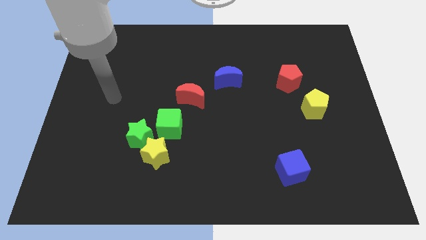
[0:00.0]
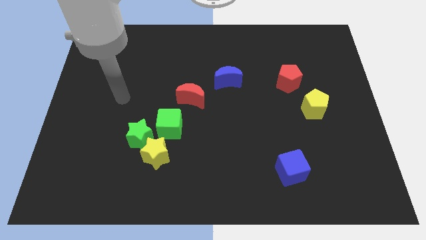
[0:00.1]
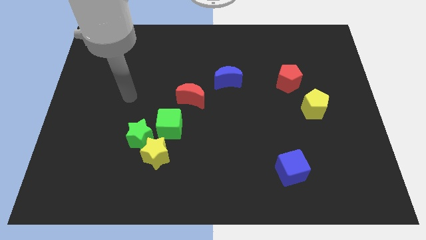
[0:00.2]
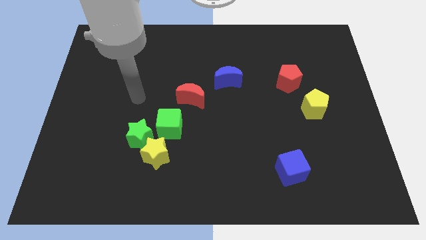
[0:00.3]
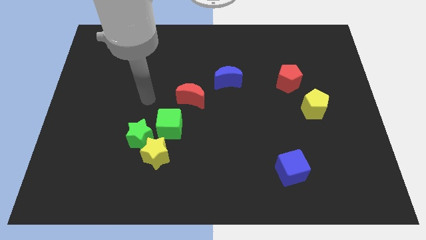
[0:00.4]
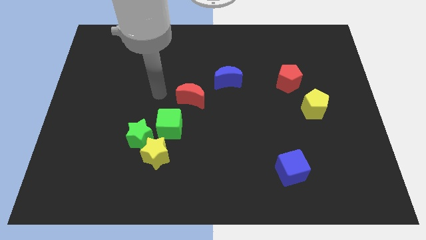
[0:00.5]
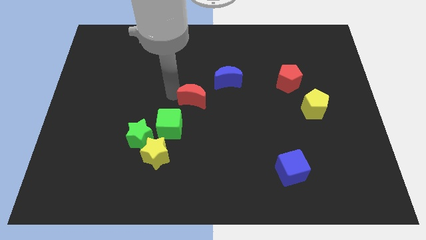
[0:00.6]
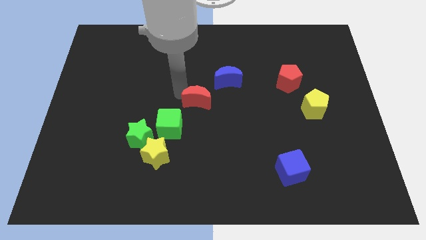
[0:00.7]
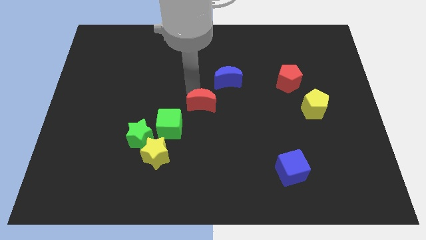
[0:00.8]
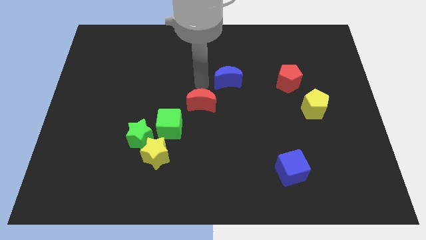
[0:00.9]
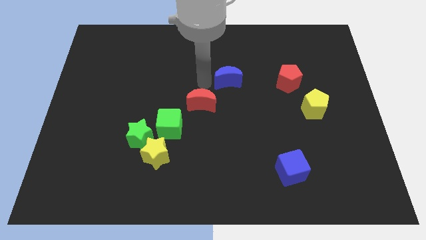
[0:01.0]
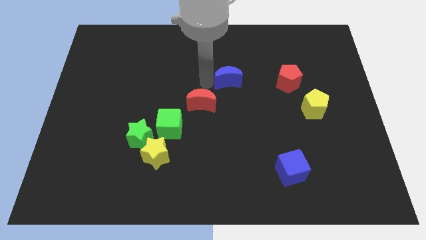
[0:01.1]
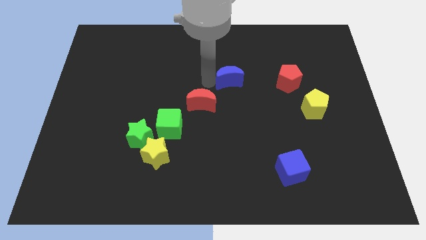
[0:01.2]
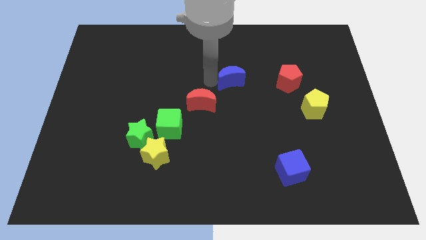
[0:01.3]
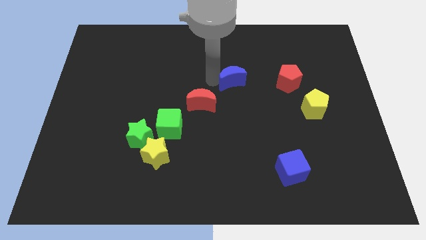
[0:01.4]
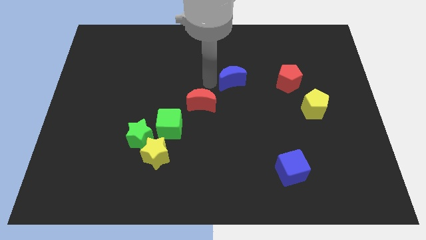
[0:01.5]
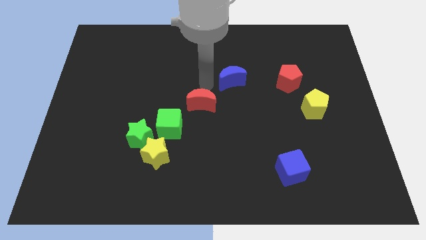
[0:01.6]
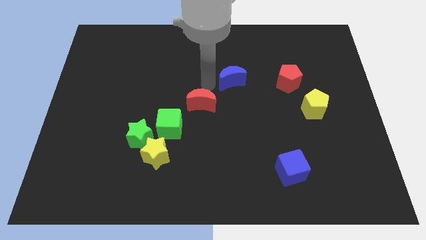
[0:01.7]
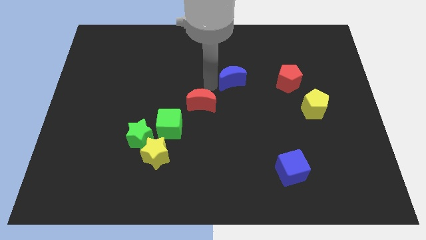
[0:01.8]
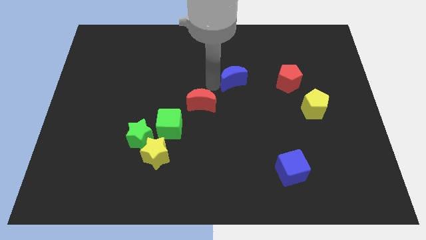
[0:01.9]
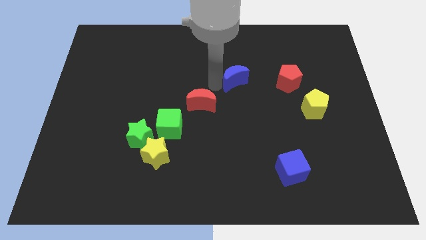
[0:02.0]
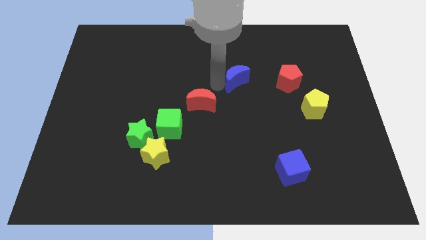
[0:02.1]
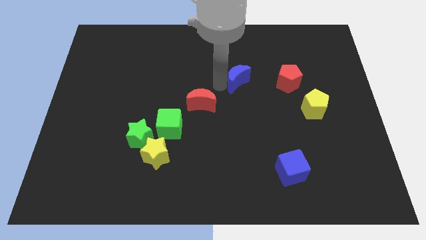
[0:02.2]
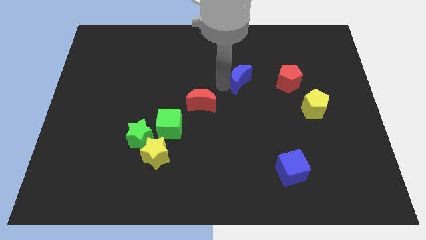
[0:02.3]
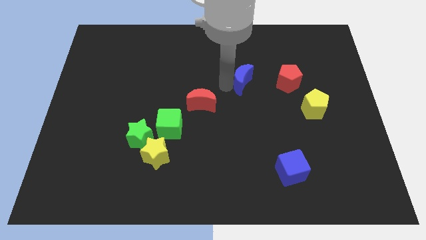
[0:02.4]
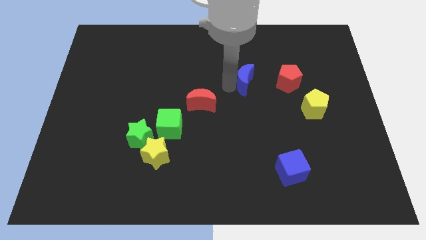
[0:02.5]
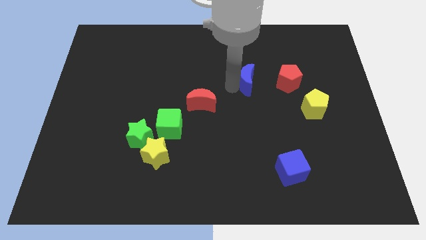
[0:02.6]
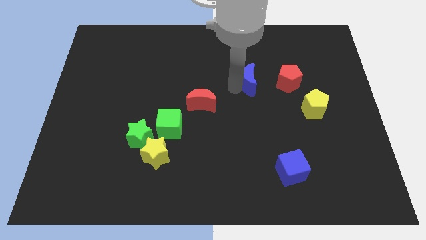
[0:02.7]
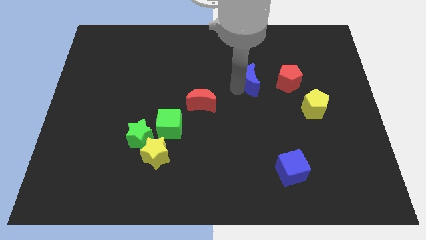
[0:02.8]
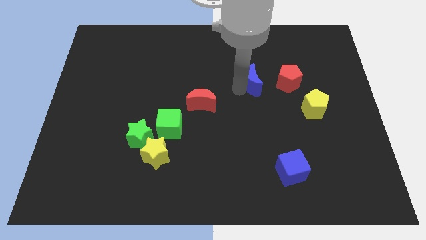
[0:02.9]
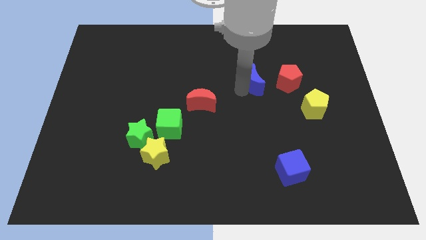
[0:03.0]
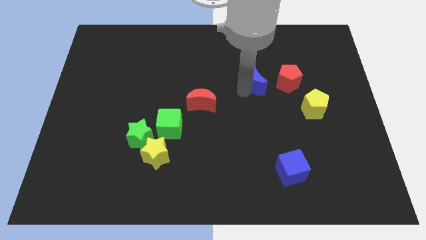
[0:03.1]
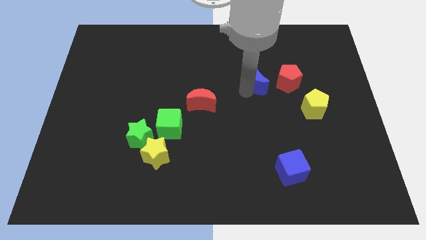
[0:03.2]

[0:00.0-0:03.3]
slightly slide the blue moon right

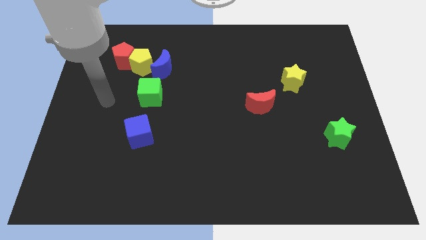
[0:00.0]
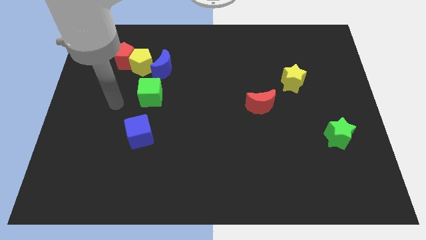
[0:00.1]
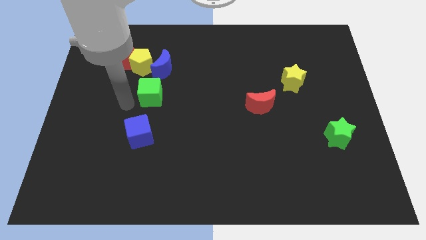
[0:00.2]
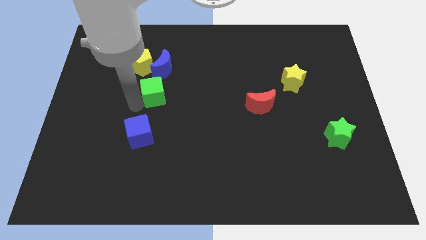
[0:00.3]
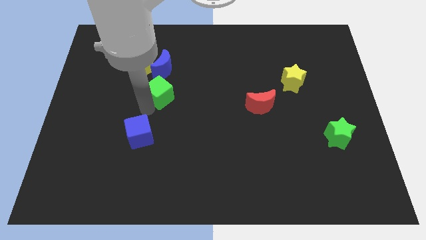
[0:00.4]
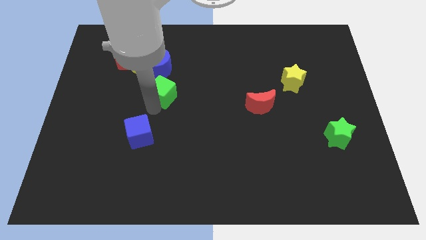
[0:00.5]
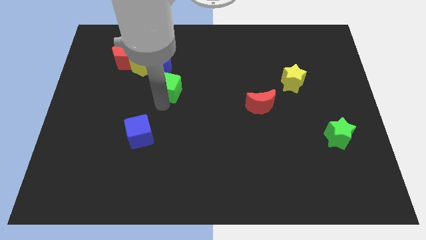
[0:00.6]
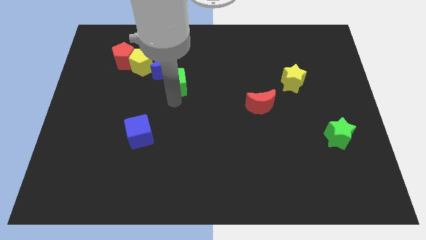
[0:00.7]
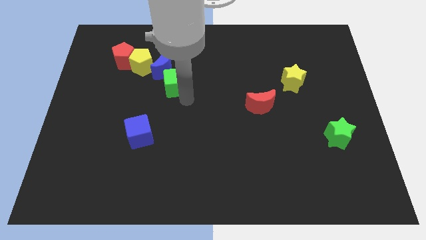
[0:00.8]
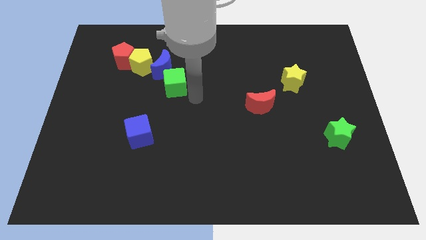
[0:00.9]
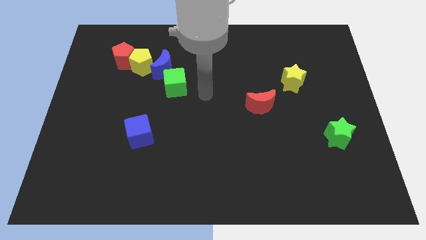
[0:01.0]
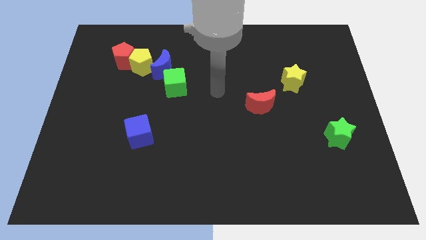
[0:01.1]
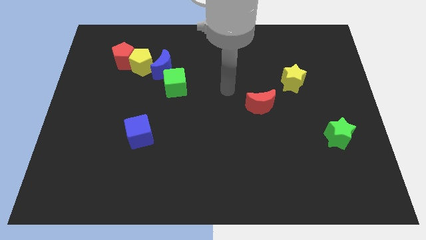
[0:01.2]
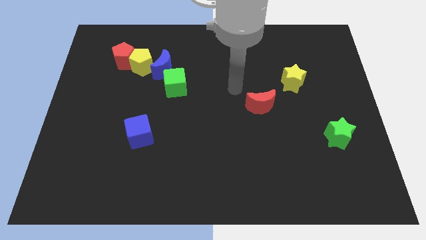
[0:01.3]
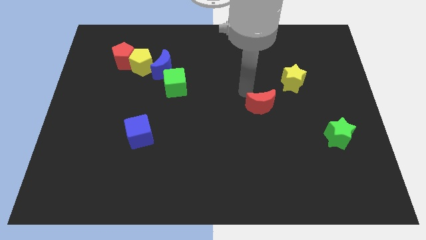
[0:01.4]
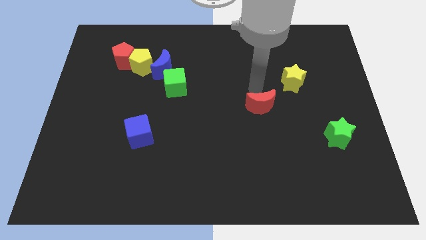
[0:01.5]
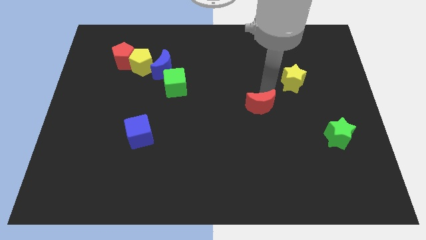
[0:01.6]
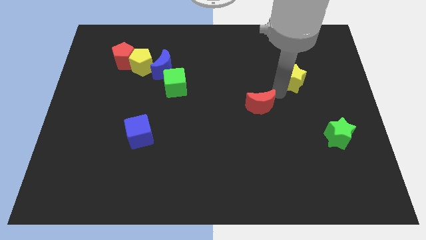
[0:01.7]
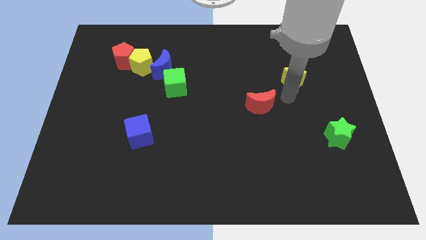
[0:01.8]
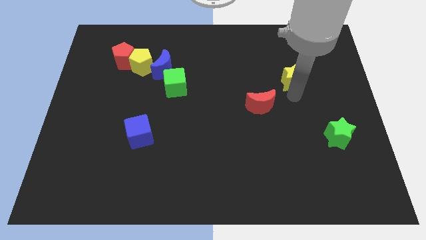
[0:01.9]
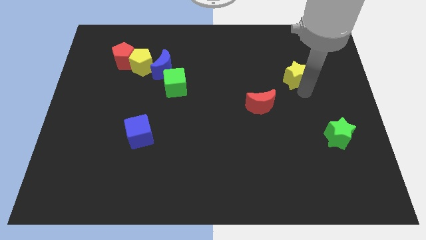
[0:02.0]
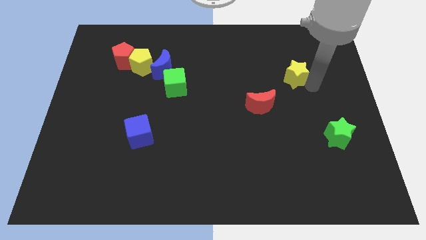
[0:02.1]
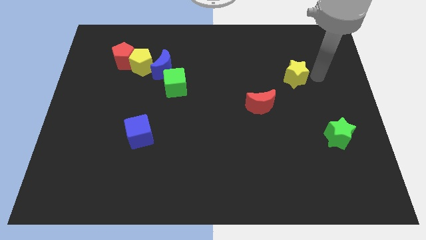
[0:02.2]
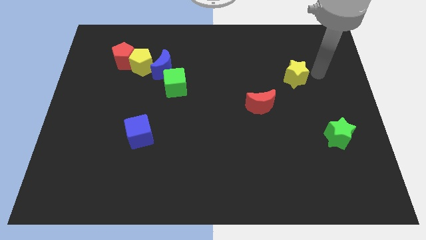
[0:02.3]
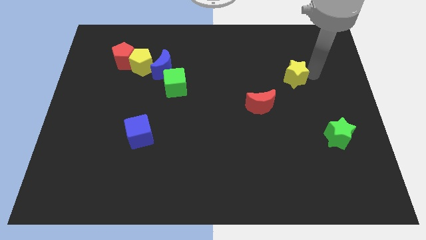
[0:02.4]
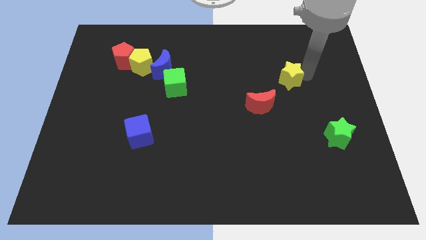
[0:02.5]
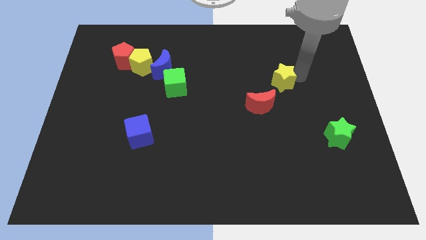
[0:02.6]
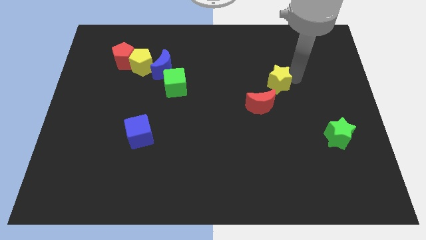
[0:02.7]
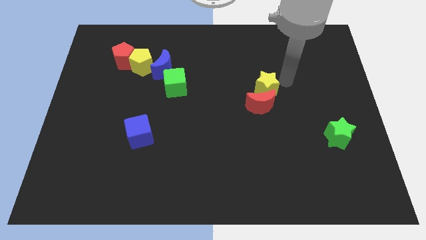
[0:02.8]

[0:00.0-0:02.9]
move the yellow star left a little bit

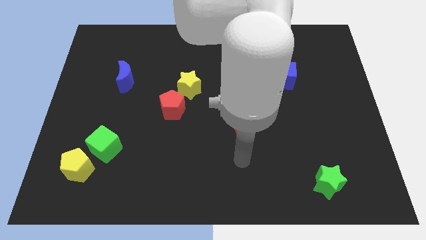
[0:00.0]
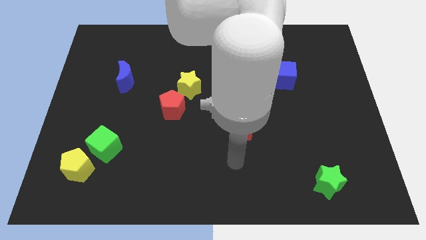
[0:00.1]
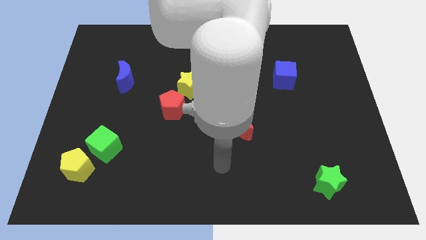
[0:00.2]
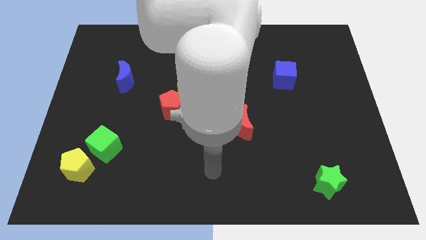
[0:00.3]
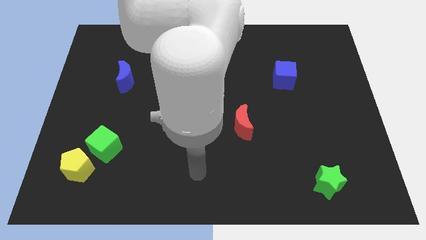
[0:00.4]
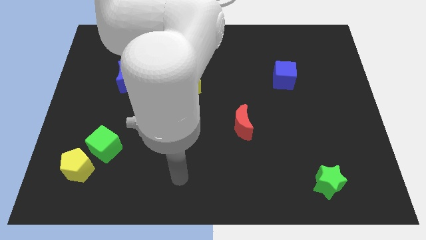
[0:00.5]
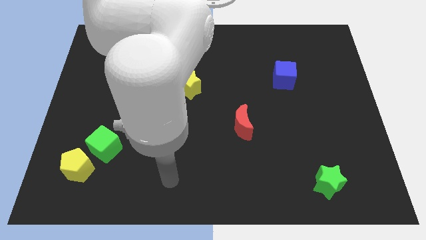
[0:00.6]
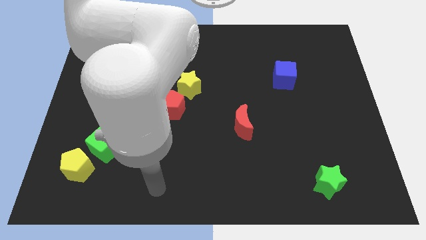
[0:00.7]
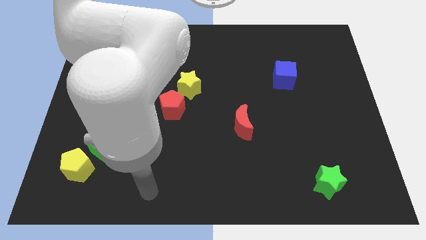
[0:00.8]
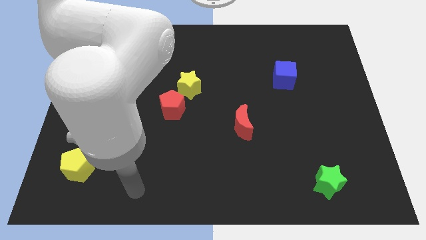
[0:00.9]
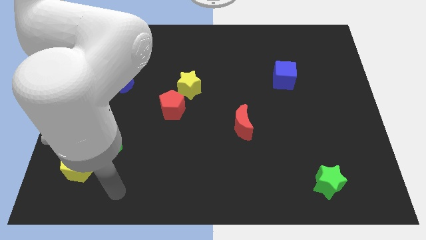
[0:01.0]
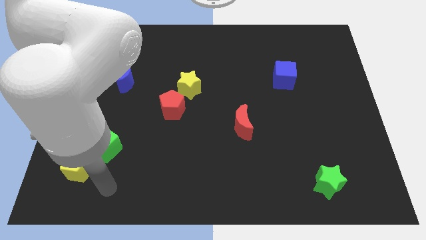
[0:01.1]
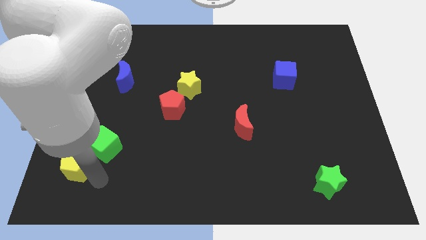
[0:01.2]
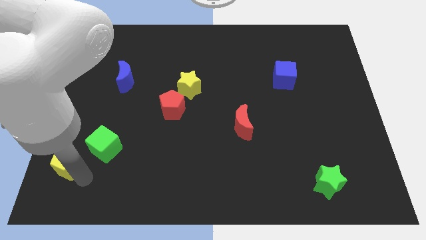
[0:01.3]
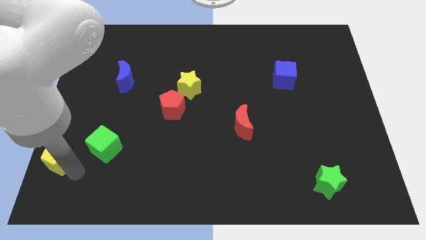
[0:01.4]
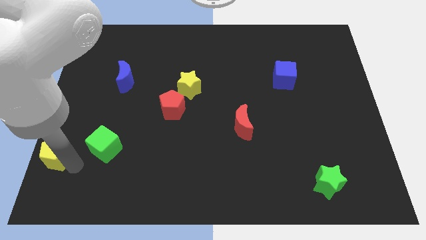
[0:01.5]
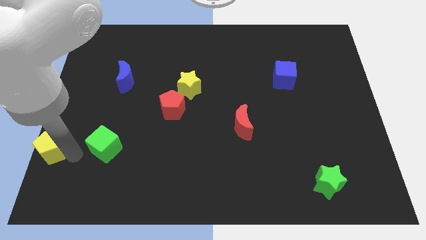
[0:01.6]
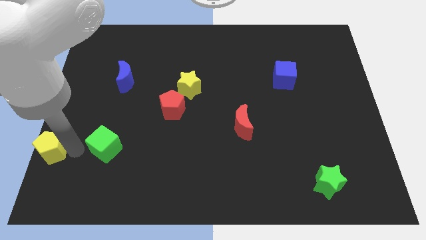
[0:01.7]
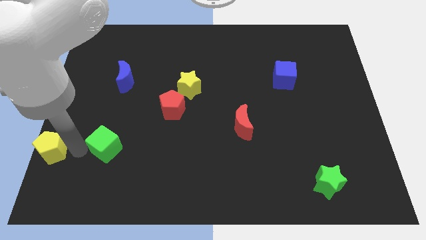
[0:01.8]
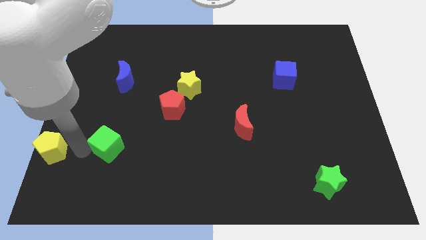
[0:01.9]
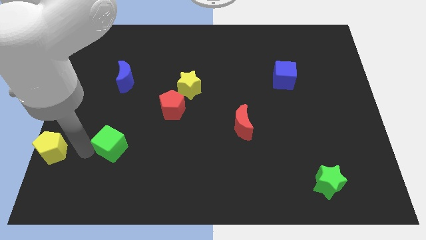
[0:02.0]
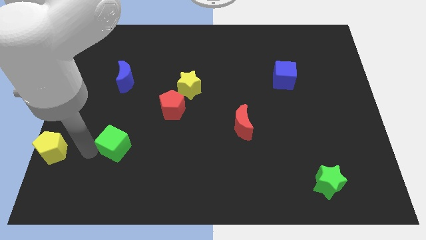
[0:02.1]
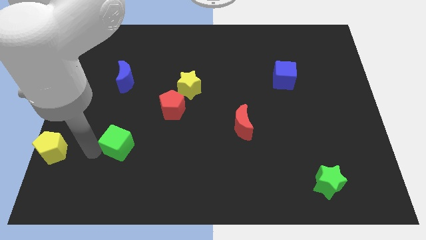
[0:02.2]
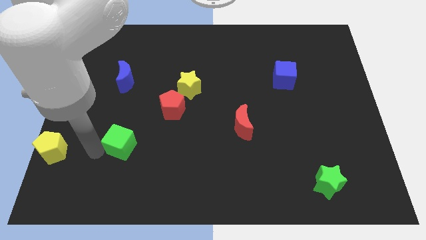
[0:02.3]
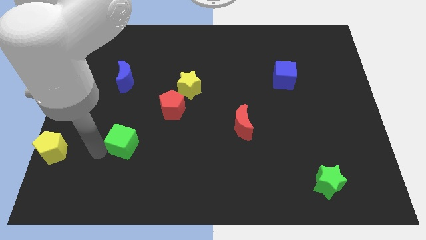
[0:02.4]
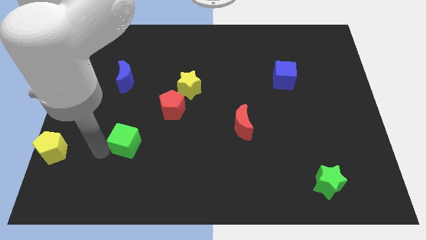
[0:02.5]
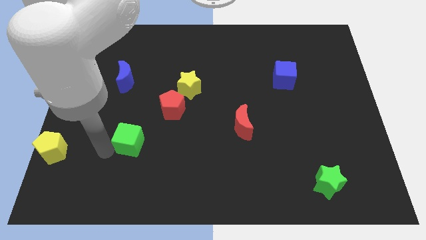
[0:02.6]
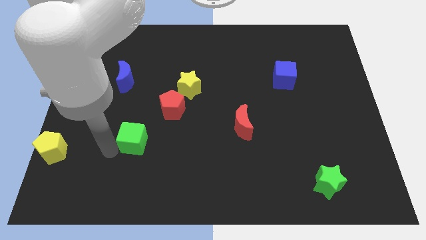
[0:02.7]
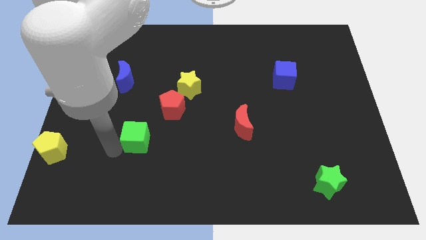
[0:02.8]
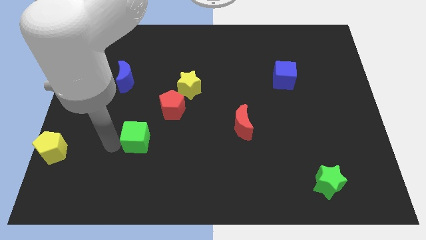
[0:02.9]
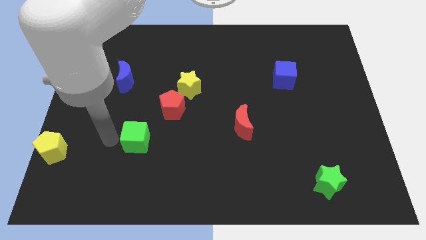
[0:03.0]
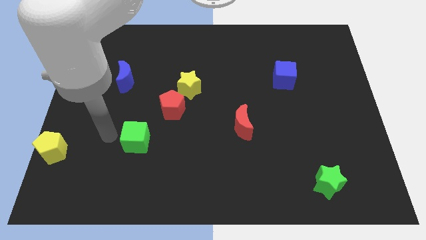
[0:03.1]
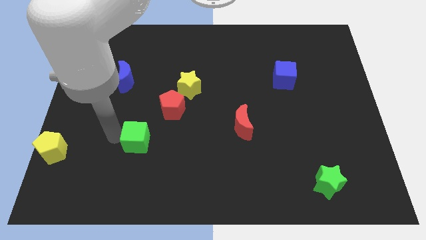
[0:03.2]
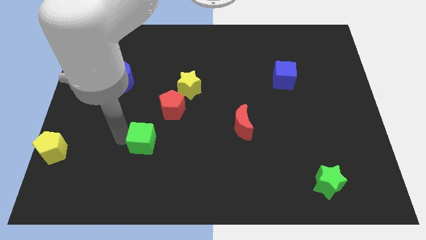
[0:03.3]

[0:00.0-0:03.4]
slightly slide the green cube right
